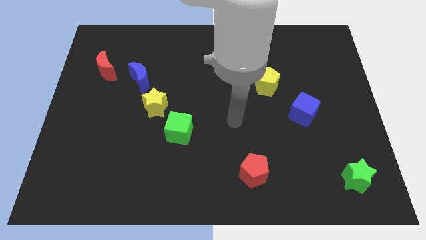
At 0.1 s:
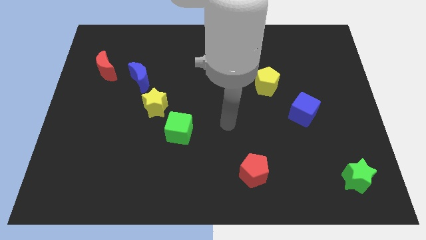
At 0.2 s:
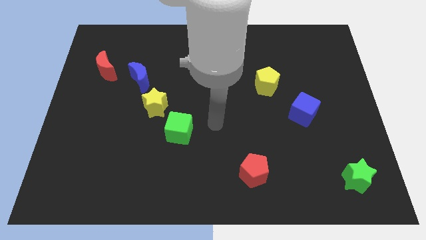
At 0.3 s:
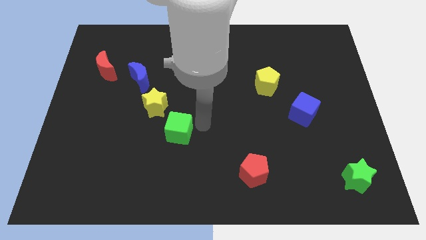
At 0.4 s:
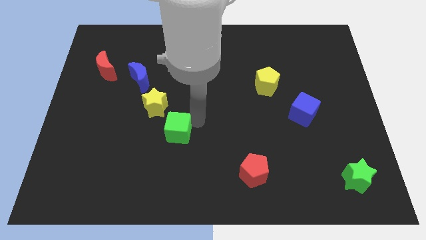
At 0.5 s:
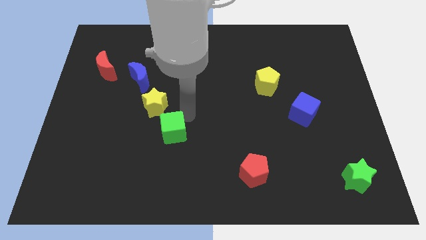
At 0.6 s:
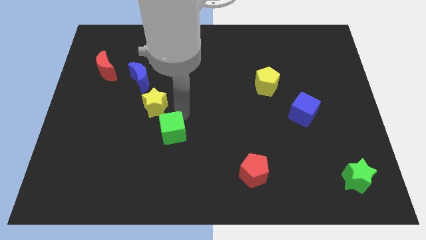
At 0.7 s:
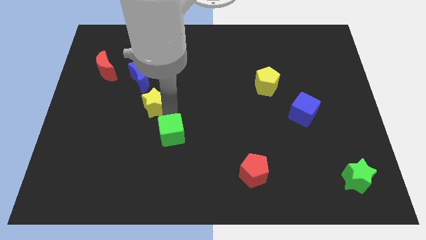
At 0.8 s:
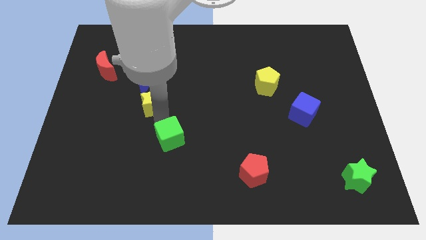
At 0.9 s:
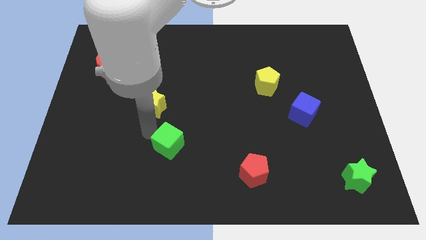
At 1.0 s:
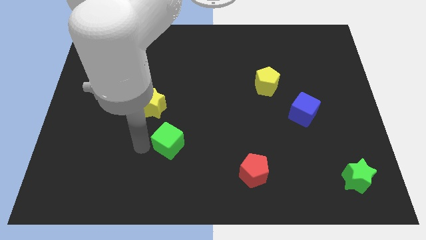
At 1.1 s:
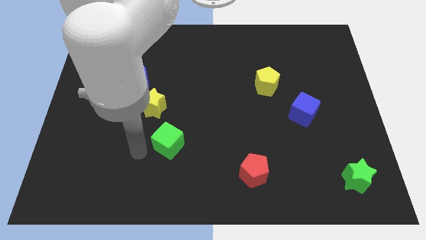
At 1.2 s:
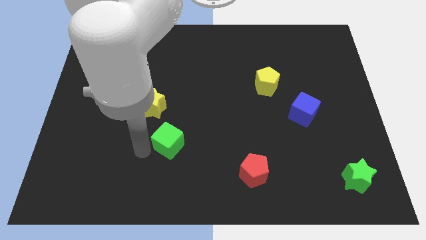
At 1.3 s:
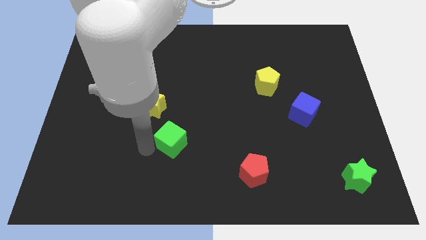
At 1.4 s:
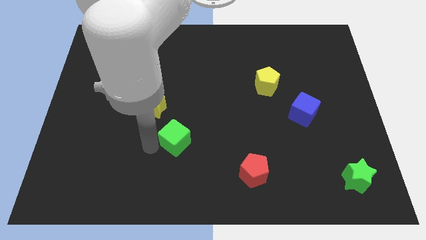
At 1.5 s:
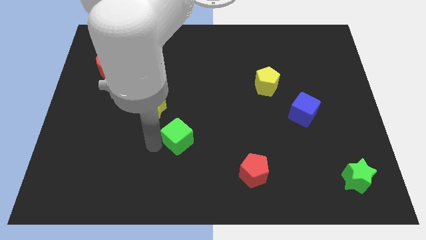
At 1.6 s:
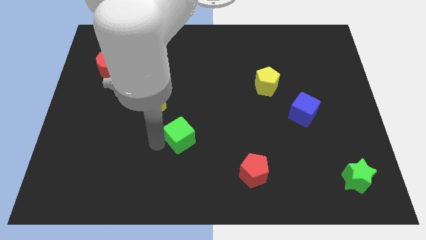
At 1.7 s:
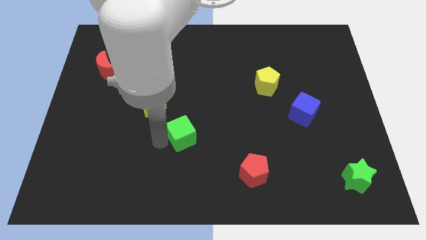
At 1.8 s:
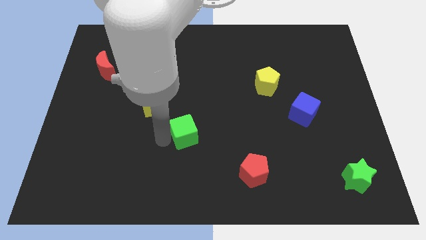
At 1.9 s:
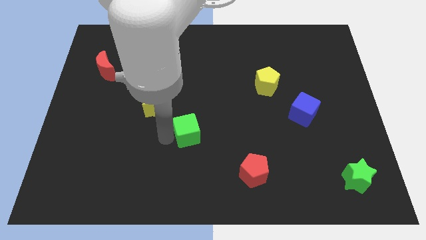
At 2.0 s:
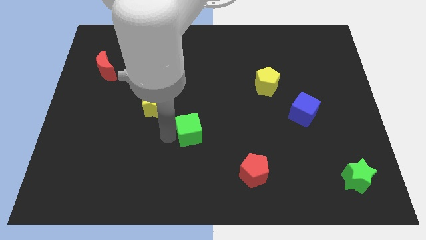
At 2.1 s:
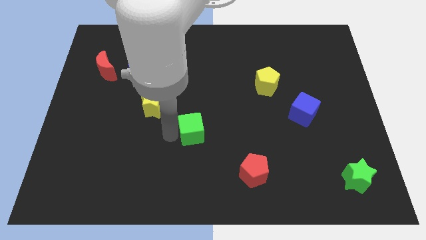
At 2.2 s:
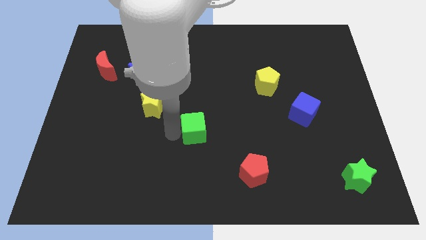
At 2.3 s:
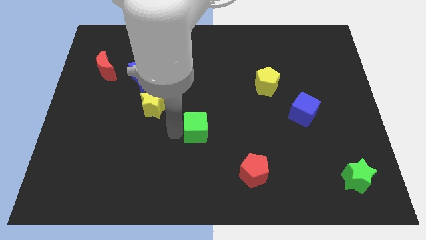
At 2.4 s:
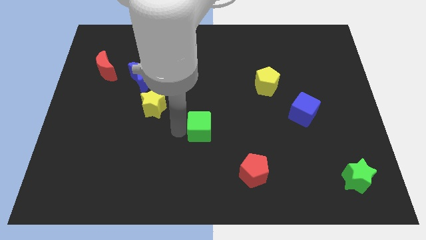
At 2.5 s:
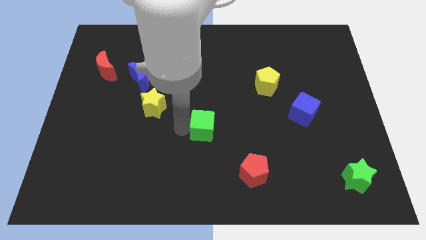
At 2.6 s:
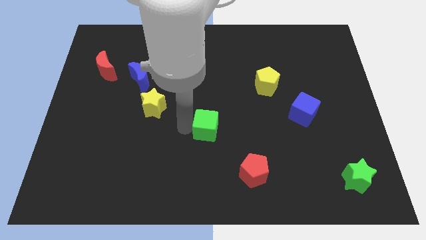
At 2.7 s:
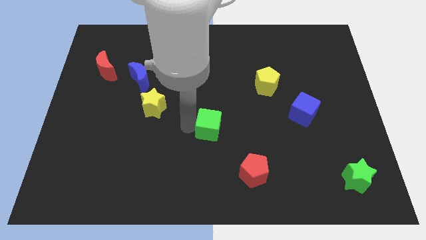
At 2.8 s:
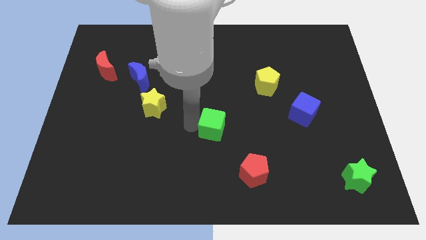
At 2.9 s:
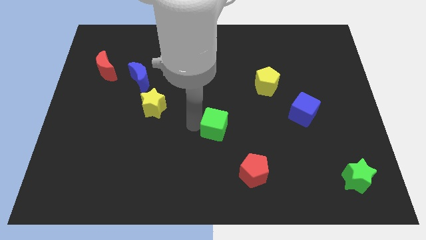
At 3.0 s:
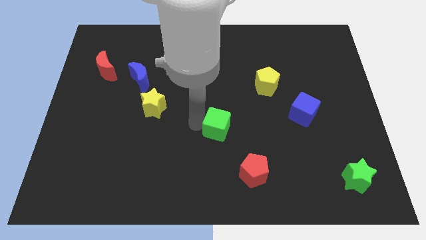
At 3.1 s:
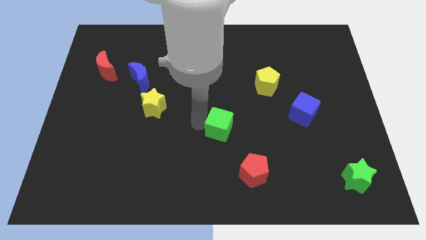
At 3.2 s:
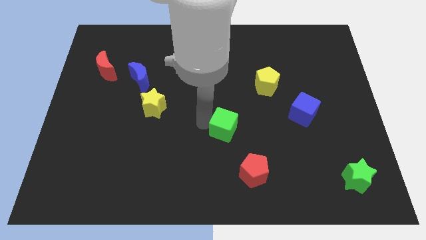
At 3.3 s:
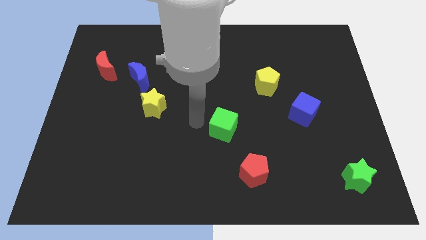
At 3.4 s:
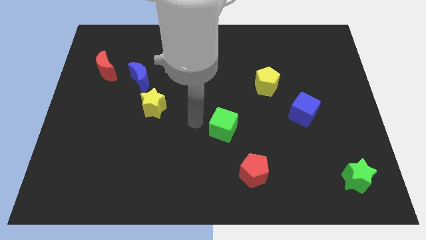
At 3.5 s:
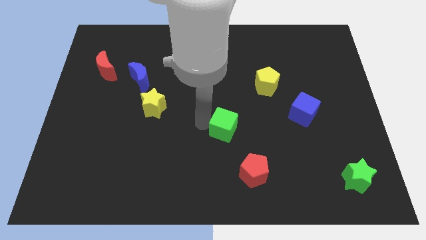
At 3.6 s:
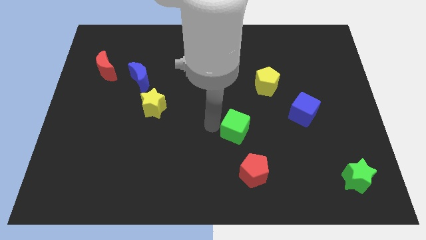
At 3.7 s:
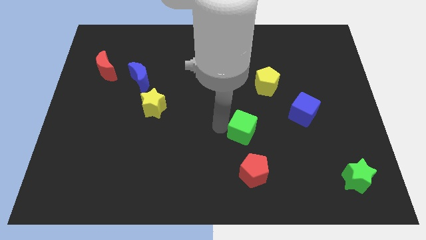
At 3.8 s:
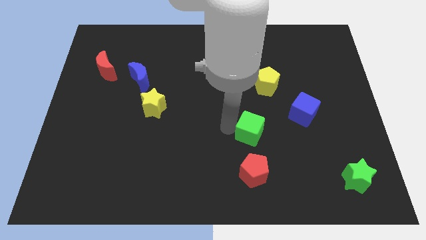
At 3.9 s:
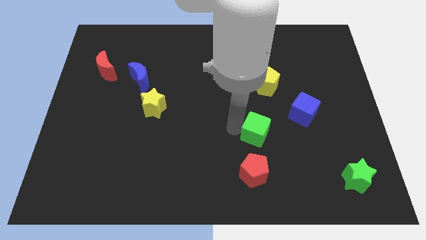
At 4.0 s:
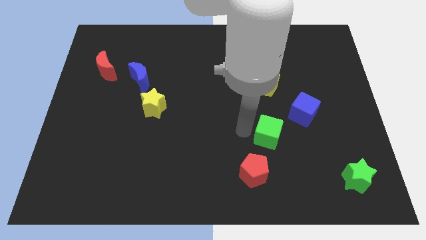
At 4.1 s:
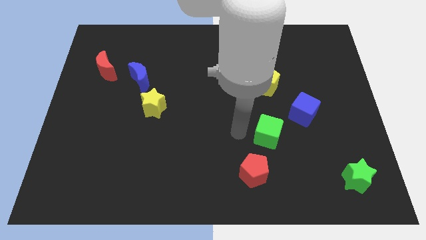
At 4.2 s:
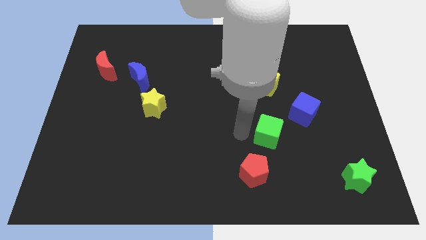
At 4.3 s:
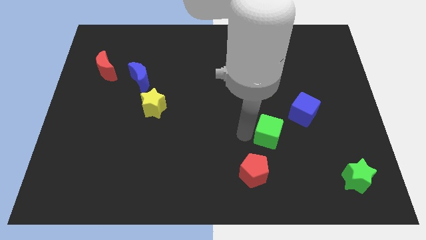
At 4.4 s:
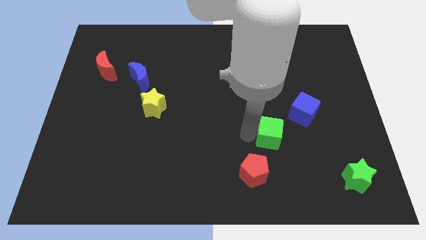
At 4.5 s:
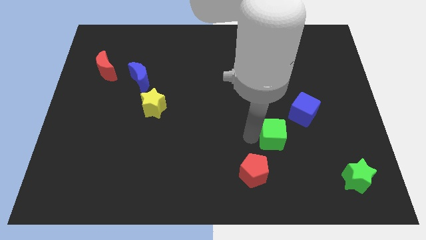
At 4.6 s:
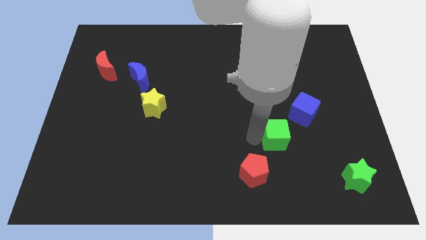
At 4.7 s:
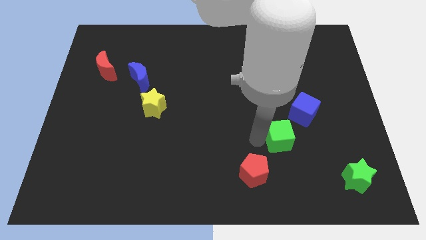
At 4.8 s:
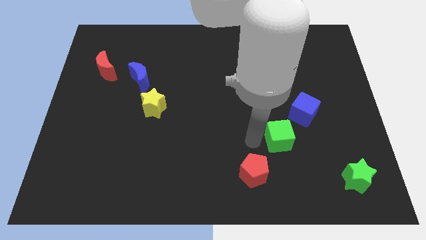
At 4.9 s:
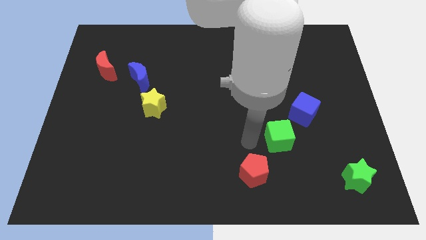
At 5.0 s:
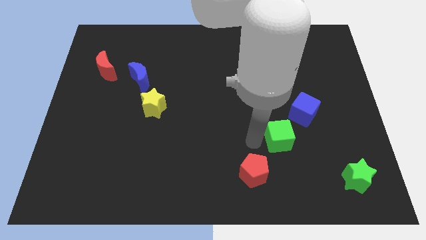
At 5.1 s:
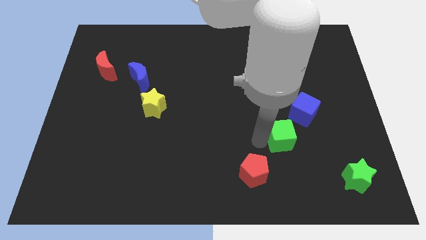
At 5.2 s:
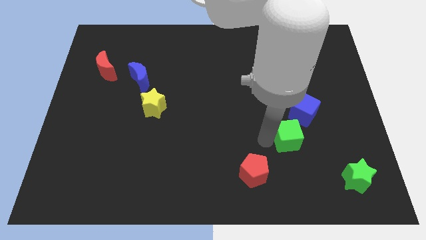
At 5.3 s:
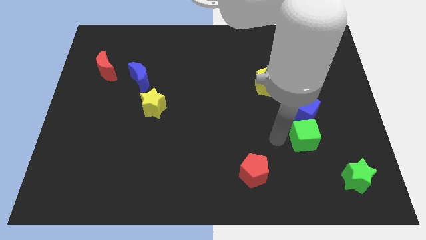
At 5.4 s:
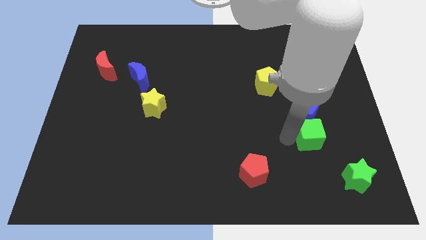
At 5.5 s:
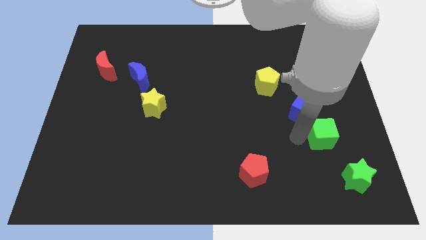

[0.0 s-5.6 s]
move the green cube above the green star

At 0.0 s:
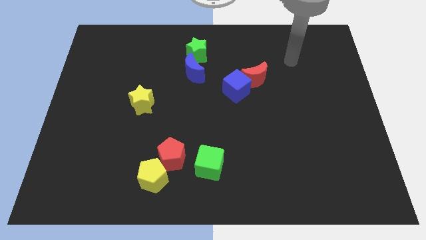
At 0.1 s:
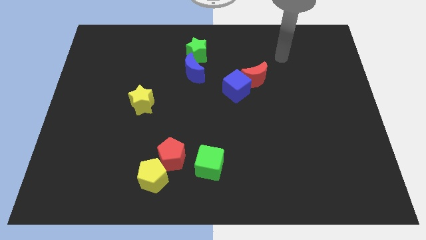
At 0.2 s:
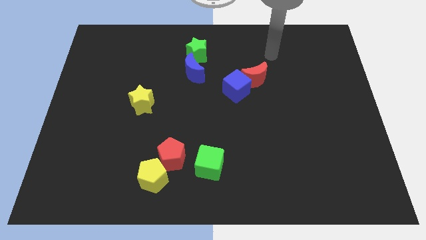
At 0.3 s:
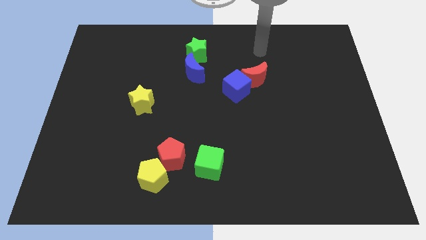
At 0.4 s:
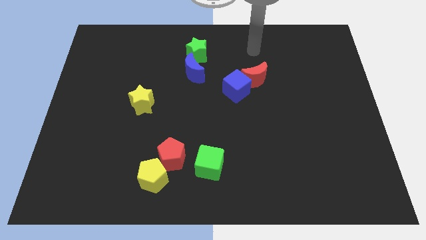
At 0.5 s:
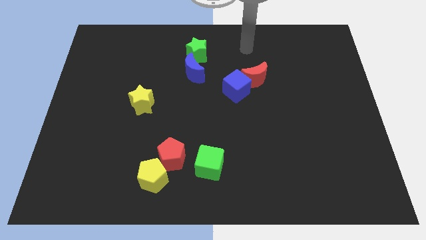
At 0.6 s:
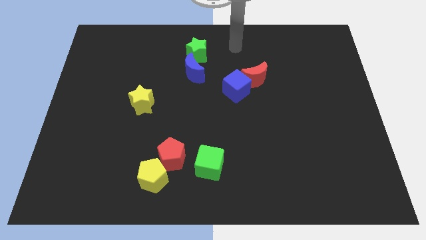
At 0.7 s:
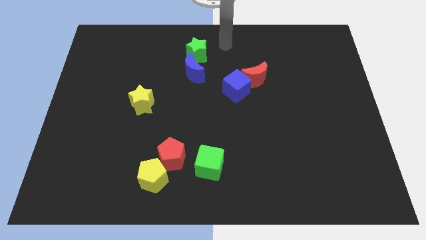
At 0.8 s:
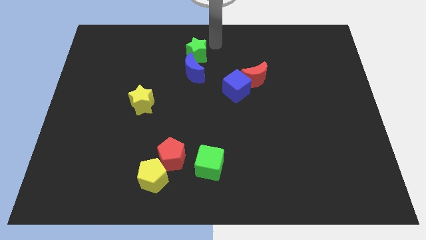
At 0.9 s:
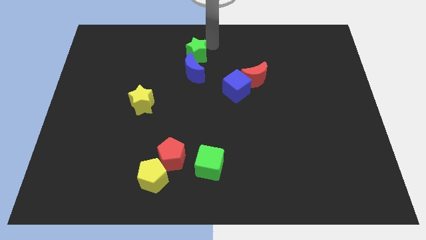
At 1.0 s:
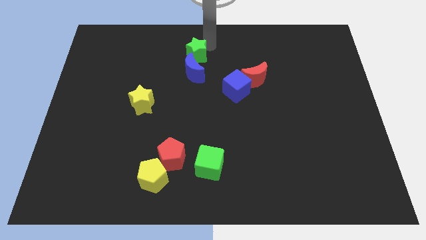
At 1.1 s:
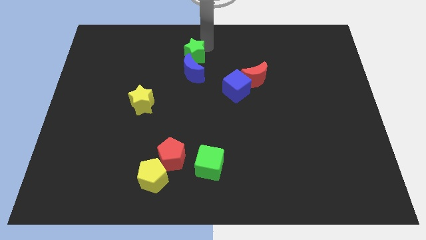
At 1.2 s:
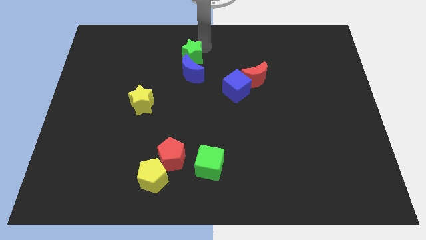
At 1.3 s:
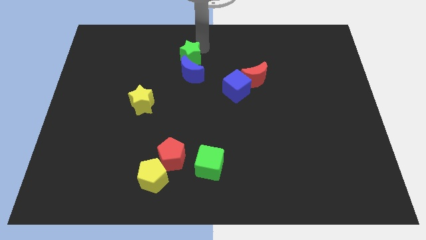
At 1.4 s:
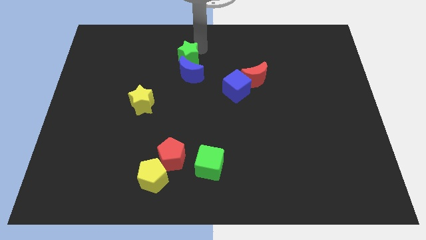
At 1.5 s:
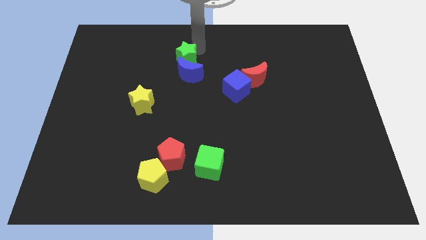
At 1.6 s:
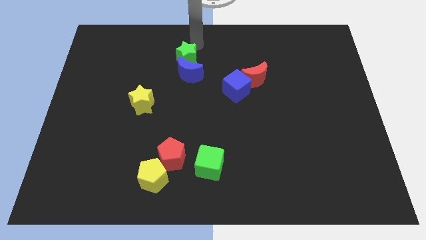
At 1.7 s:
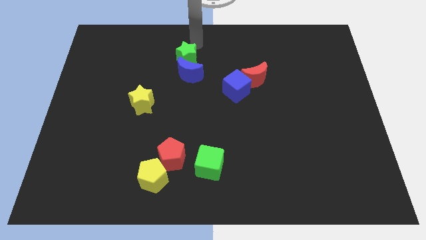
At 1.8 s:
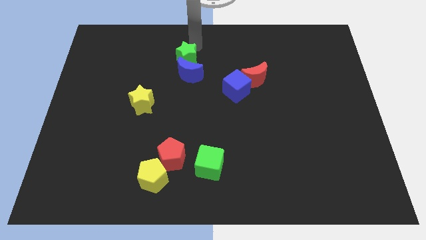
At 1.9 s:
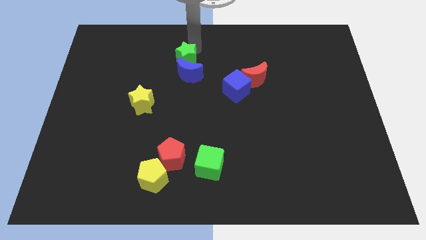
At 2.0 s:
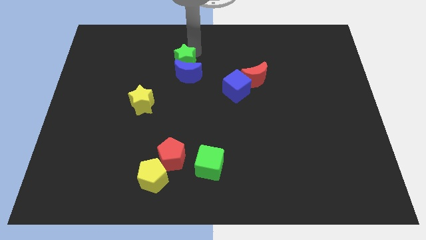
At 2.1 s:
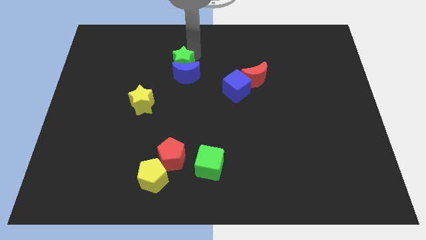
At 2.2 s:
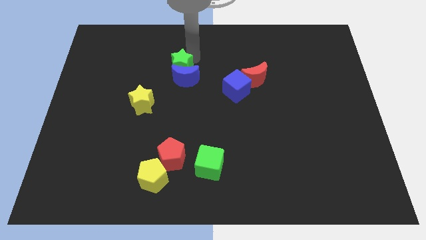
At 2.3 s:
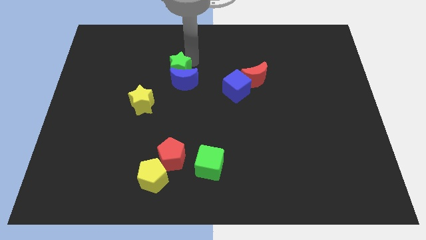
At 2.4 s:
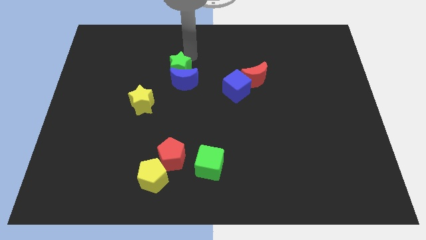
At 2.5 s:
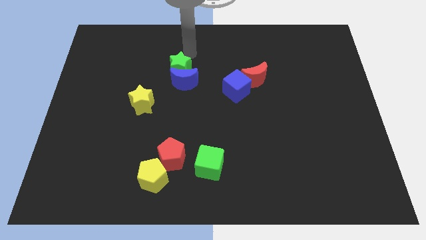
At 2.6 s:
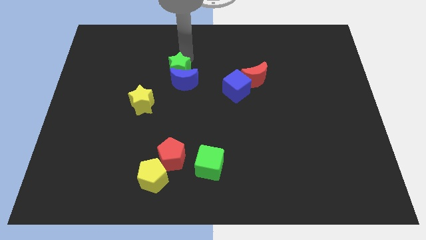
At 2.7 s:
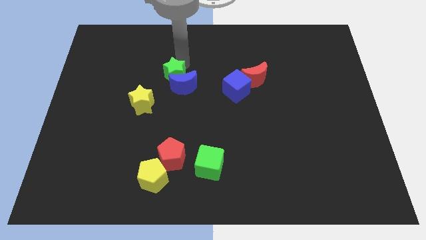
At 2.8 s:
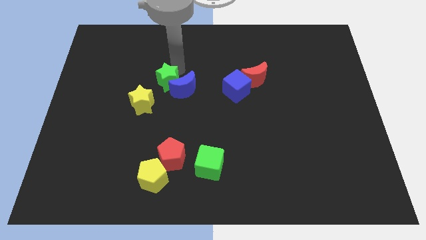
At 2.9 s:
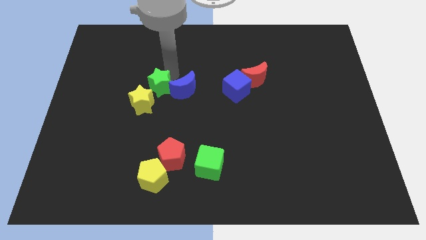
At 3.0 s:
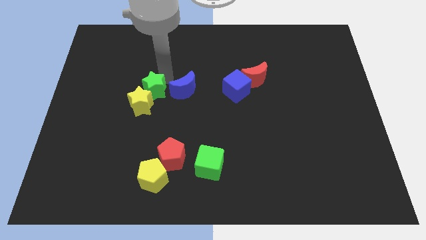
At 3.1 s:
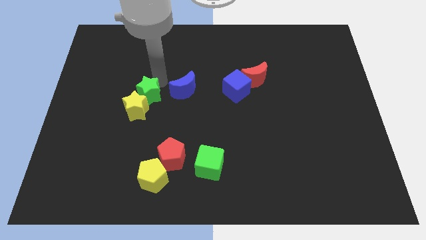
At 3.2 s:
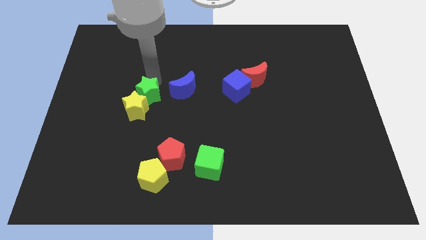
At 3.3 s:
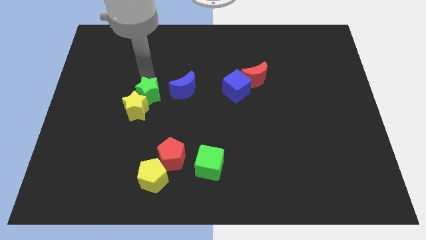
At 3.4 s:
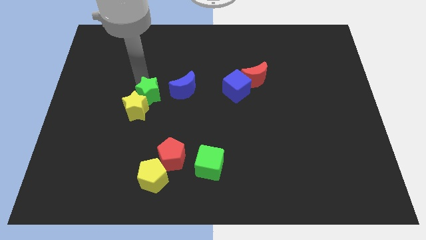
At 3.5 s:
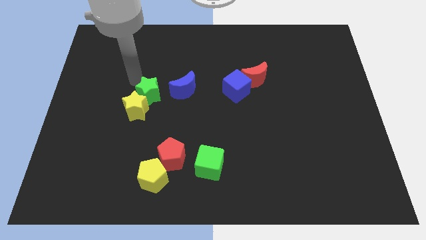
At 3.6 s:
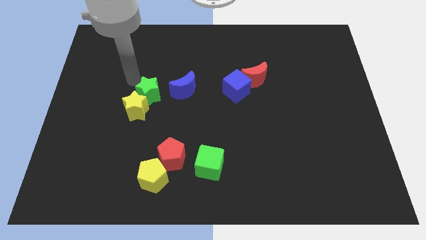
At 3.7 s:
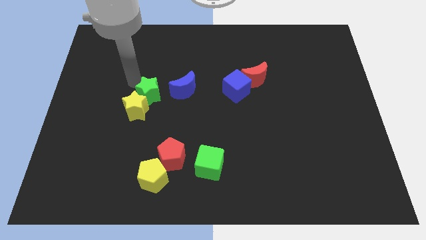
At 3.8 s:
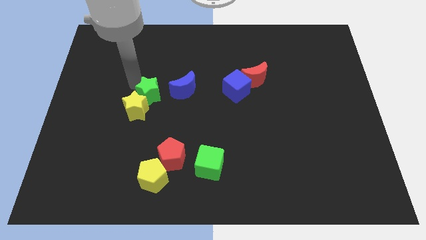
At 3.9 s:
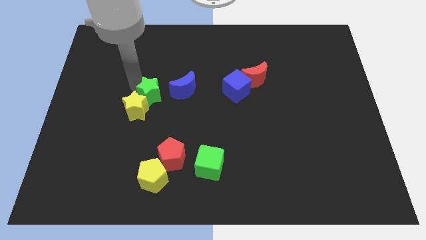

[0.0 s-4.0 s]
move the green star to the bottom left side of the blue moon
